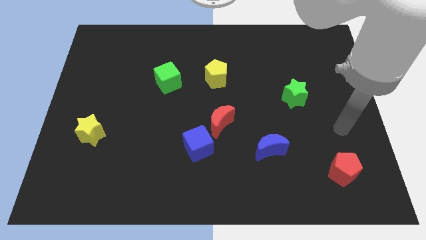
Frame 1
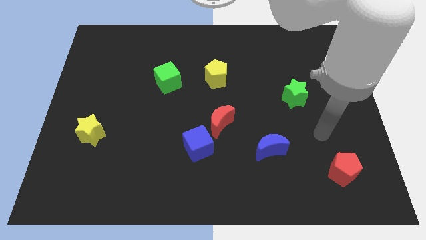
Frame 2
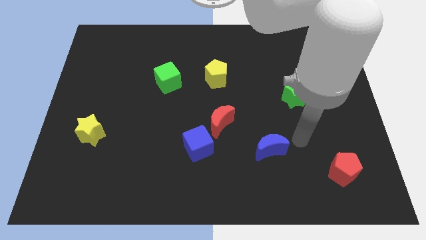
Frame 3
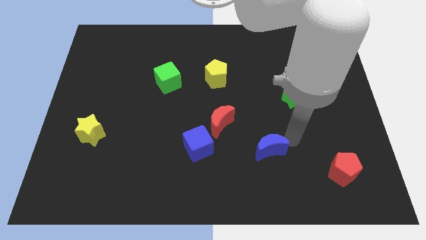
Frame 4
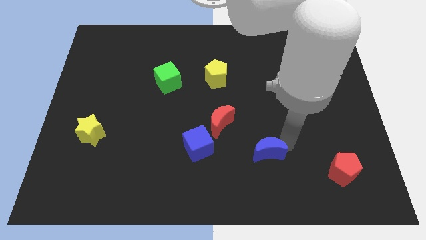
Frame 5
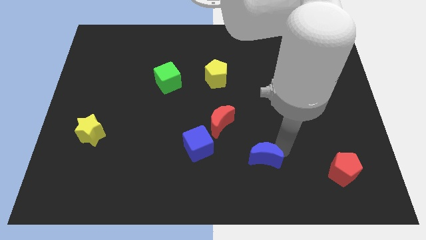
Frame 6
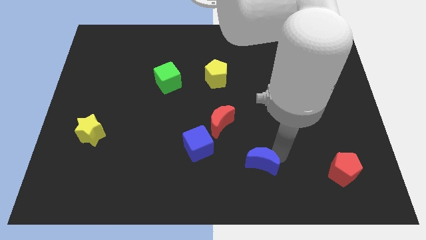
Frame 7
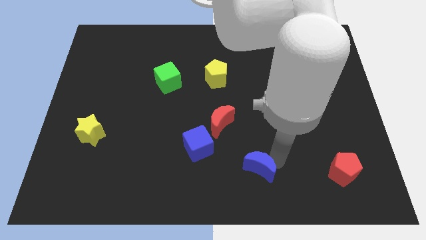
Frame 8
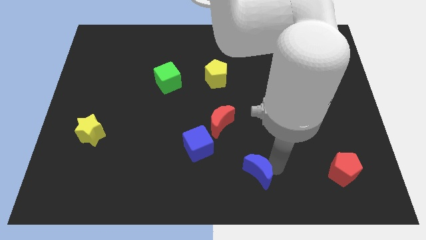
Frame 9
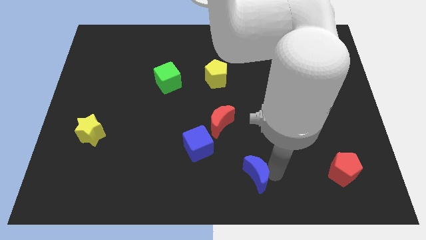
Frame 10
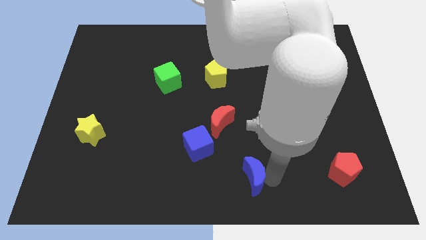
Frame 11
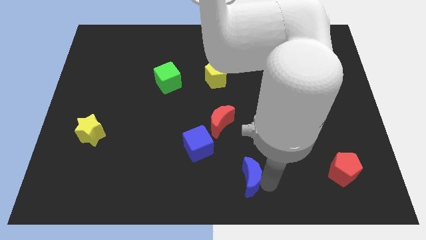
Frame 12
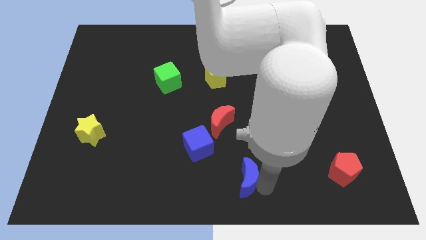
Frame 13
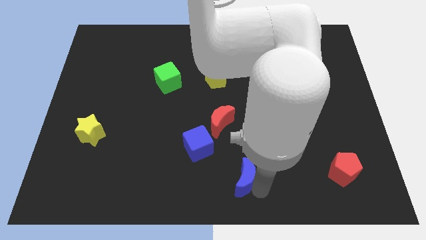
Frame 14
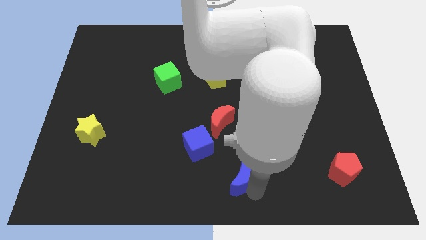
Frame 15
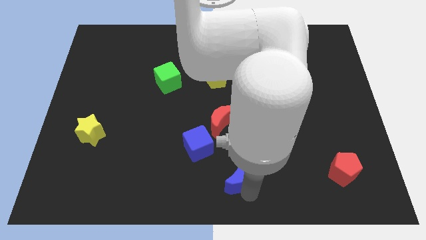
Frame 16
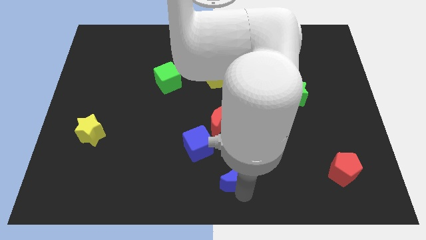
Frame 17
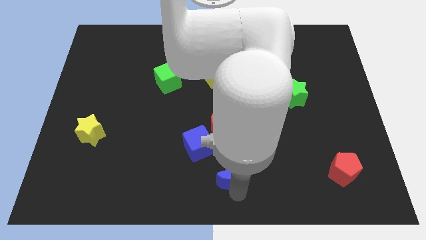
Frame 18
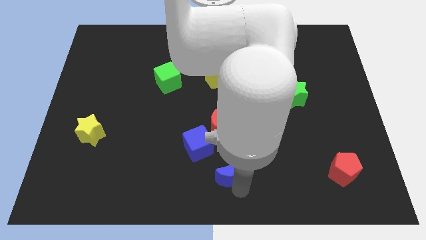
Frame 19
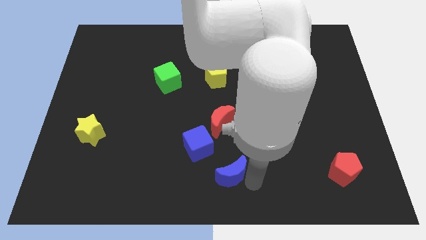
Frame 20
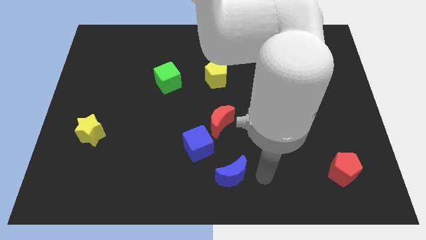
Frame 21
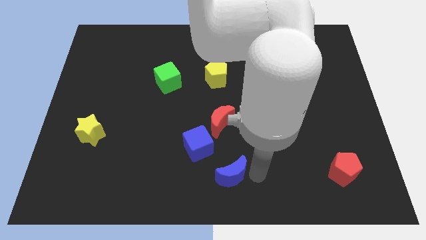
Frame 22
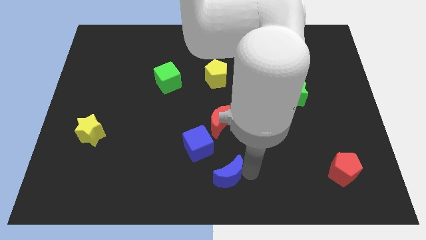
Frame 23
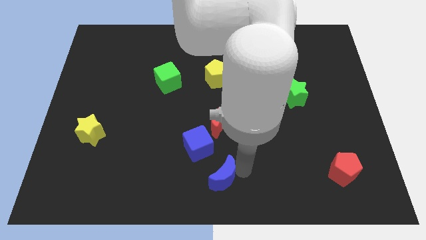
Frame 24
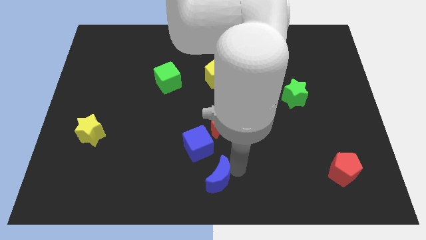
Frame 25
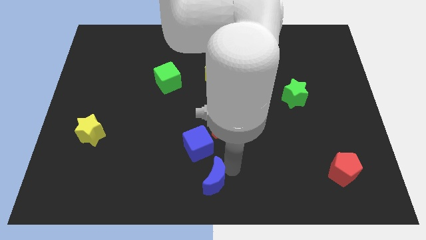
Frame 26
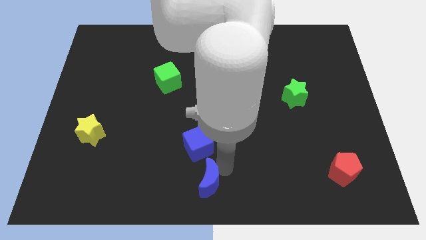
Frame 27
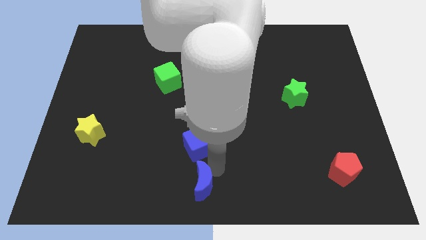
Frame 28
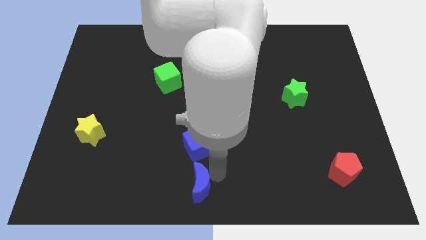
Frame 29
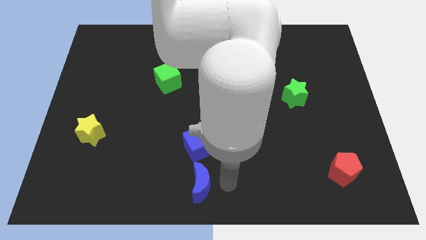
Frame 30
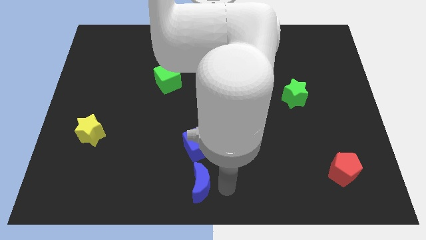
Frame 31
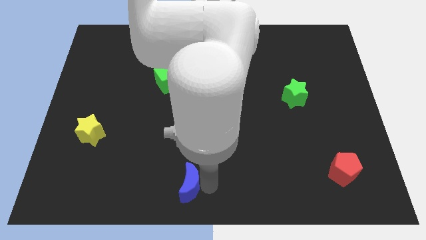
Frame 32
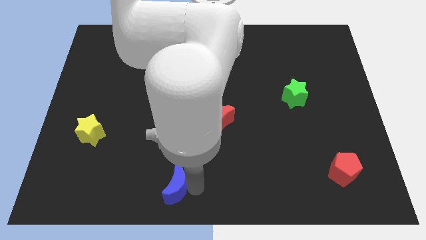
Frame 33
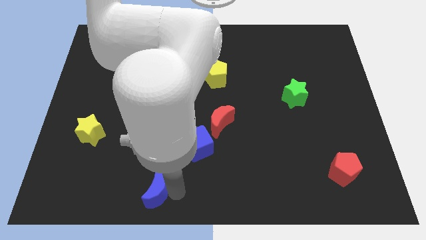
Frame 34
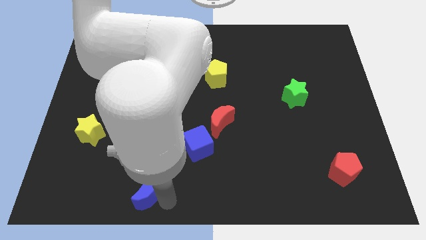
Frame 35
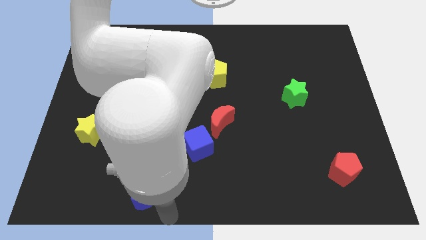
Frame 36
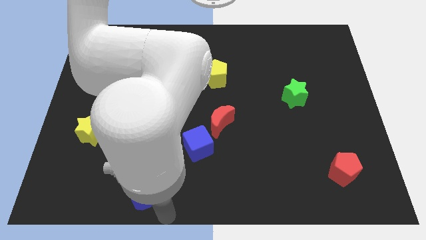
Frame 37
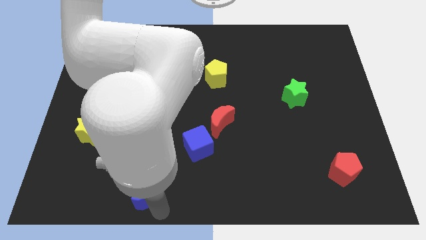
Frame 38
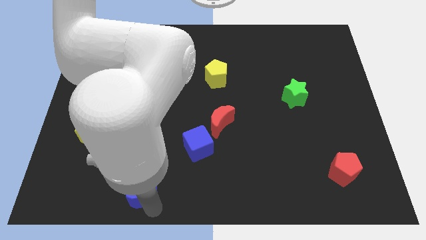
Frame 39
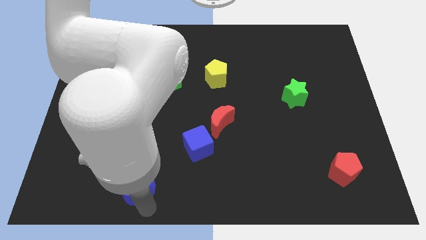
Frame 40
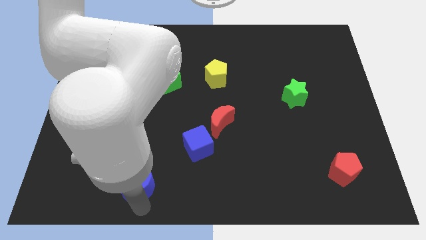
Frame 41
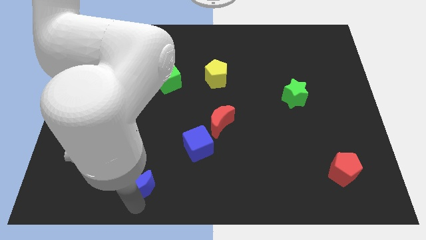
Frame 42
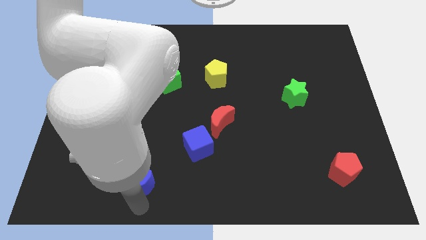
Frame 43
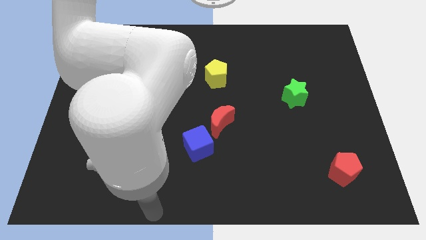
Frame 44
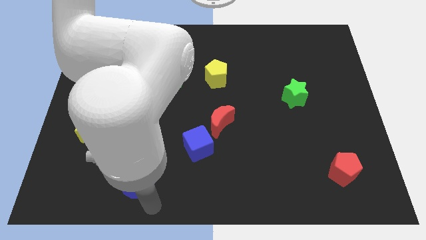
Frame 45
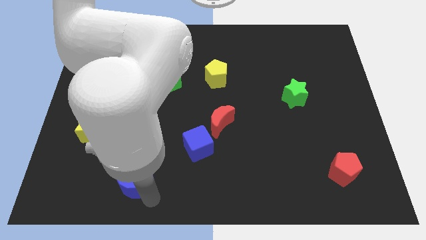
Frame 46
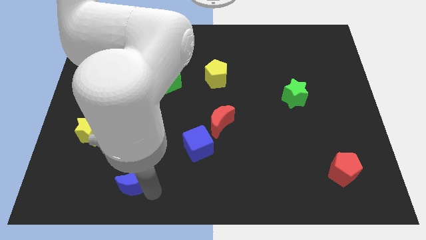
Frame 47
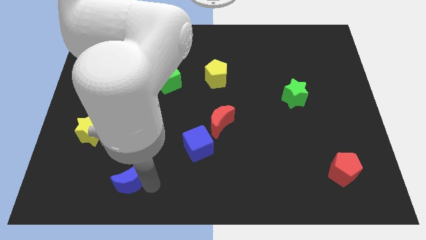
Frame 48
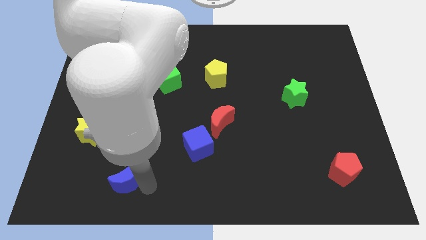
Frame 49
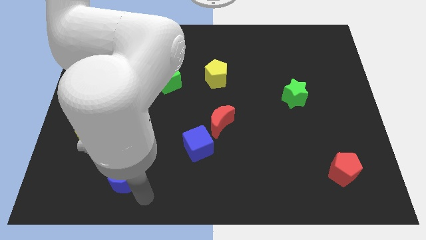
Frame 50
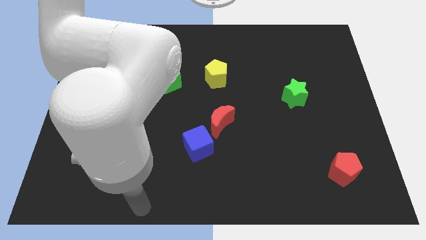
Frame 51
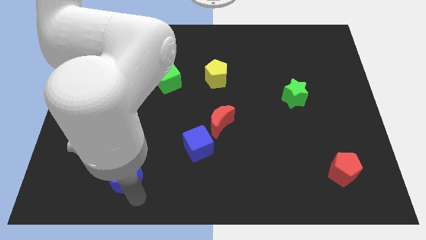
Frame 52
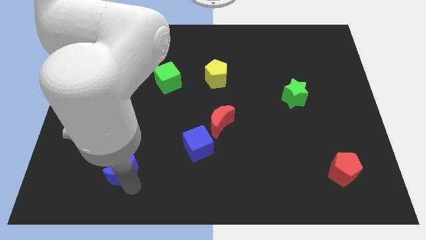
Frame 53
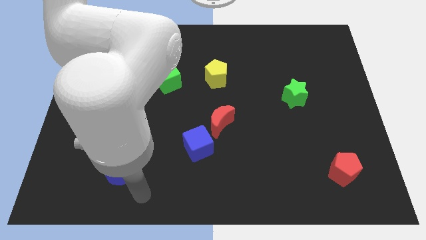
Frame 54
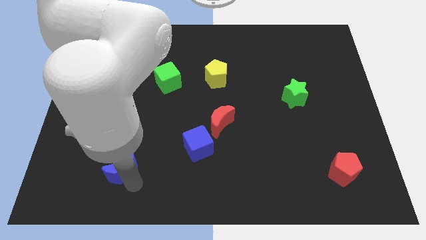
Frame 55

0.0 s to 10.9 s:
put the blue moon to the bottom right of the yellow star

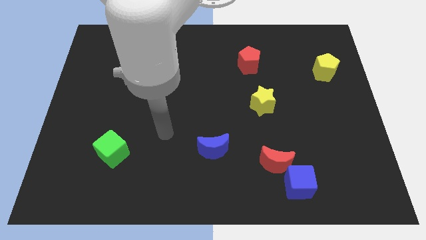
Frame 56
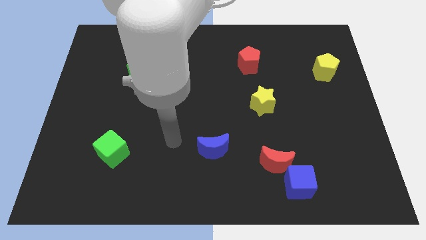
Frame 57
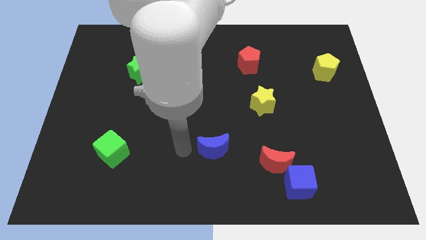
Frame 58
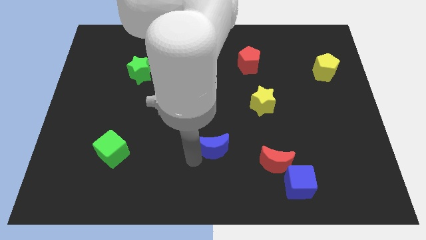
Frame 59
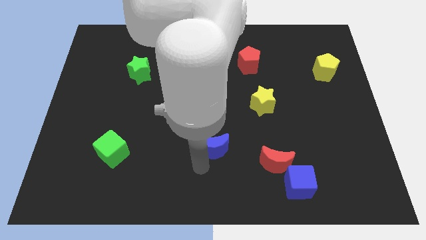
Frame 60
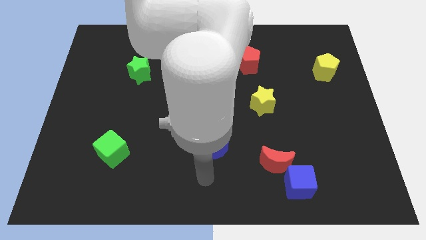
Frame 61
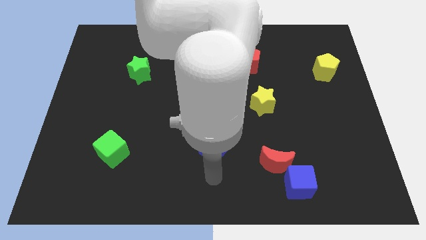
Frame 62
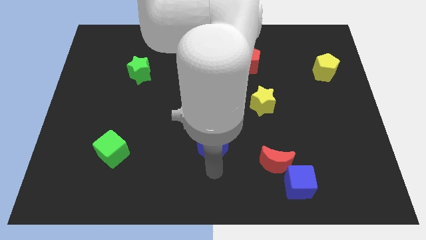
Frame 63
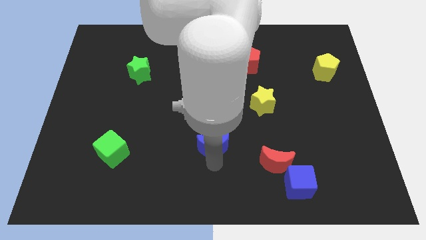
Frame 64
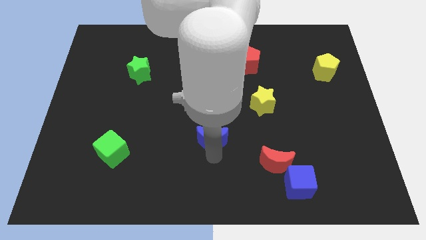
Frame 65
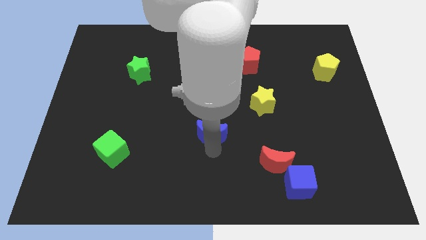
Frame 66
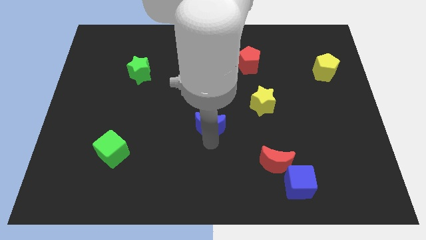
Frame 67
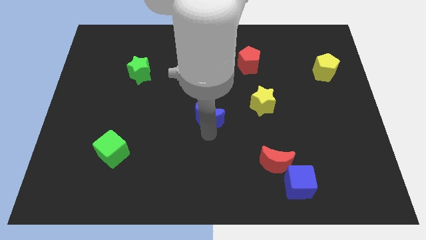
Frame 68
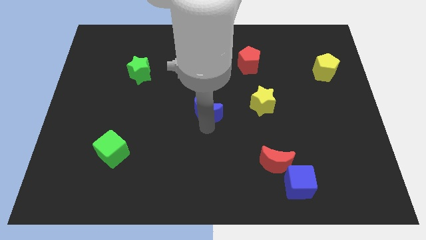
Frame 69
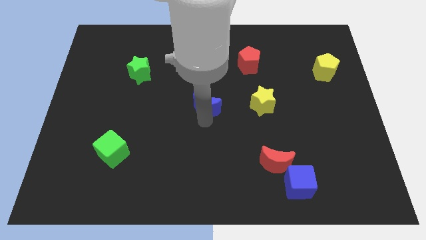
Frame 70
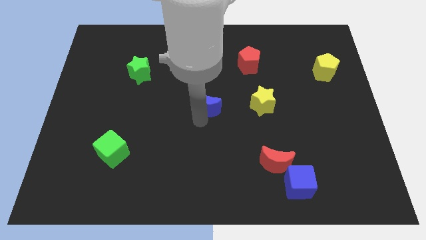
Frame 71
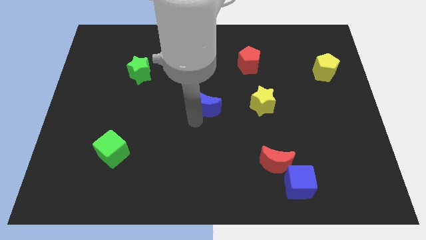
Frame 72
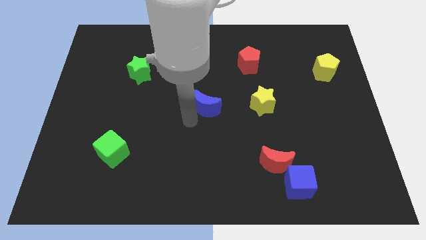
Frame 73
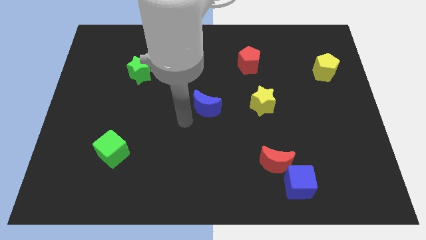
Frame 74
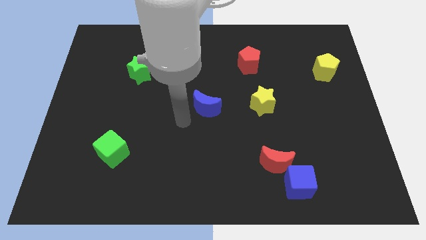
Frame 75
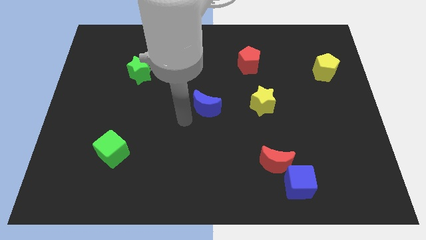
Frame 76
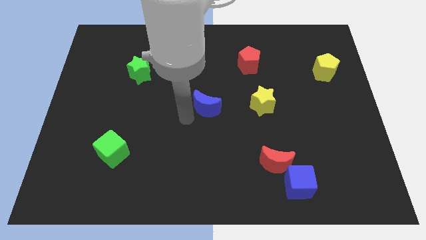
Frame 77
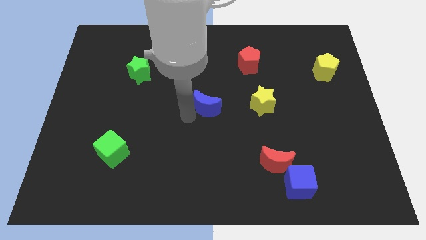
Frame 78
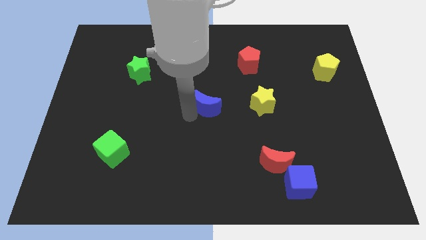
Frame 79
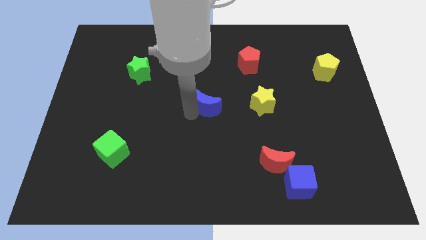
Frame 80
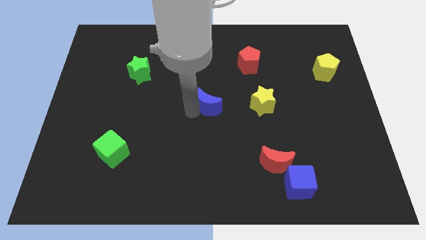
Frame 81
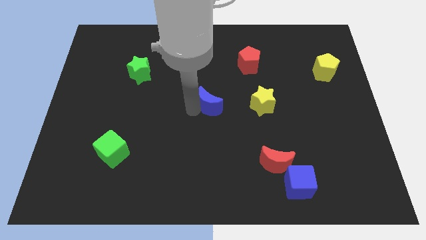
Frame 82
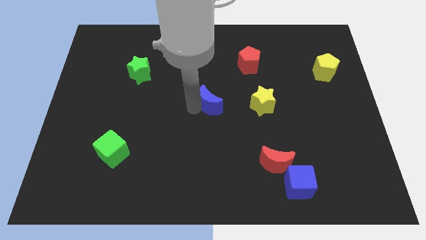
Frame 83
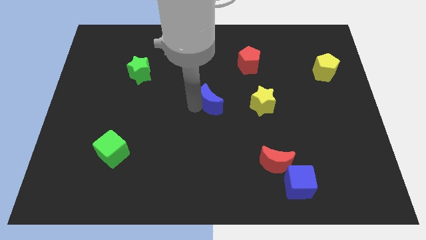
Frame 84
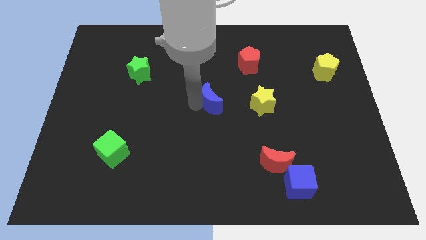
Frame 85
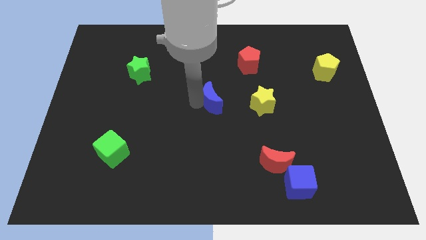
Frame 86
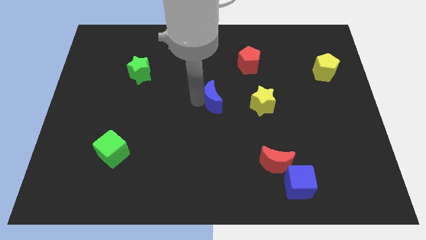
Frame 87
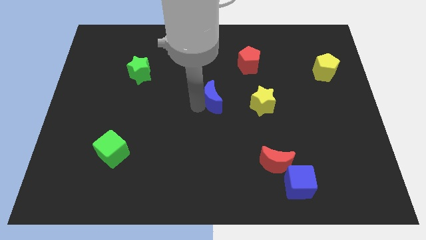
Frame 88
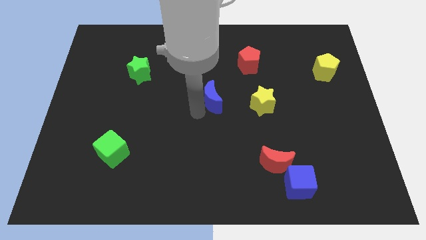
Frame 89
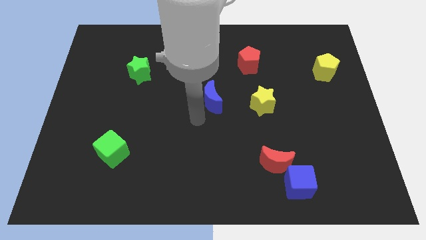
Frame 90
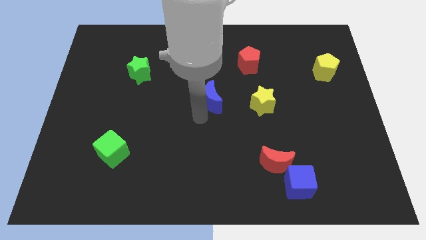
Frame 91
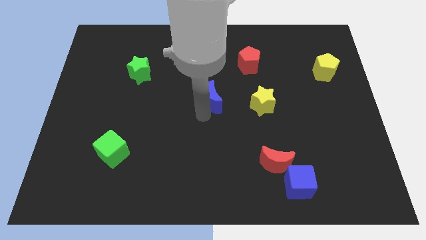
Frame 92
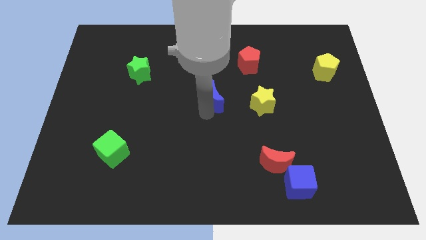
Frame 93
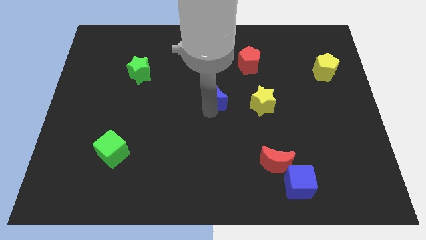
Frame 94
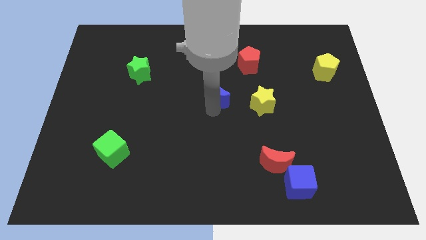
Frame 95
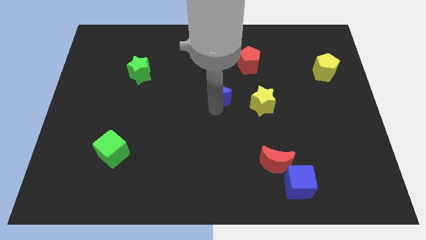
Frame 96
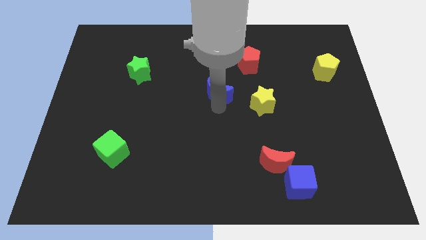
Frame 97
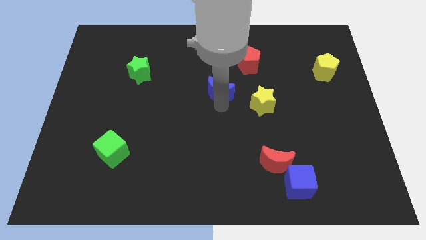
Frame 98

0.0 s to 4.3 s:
move the blue moon to the bottom left of the red pentagon
